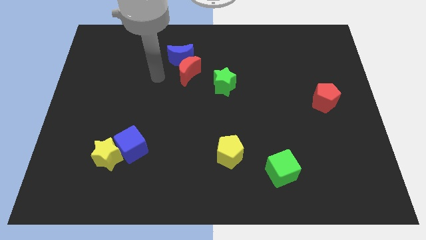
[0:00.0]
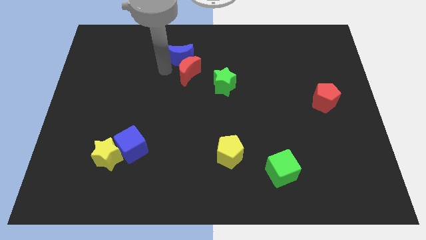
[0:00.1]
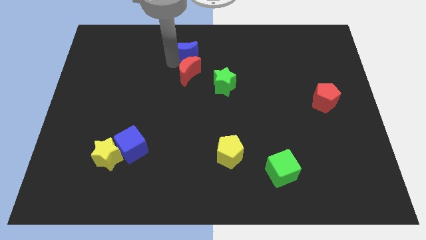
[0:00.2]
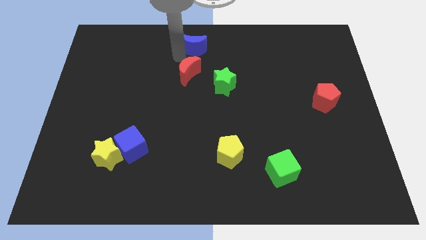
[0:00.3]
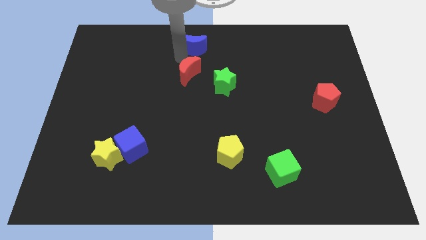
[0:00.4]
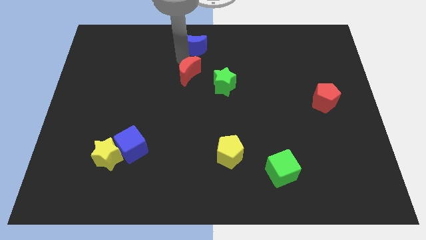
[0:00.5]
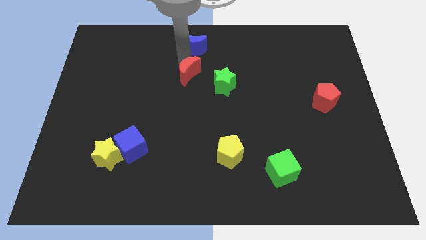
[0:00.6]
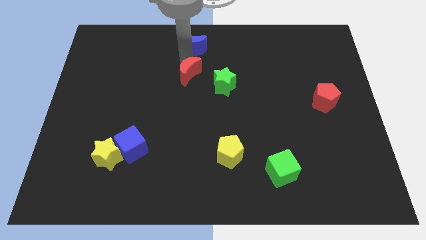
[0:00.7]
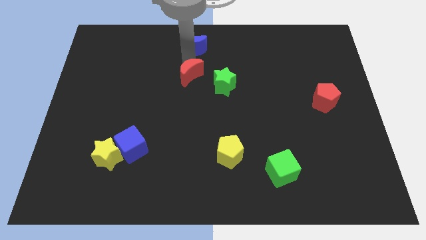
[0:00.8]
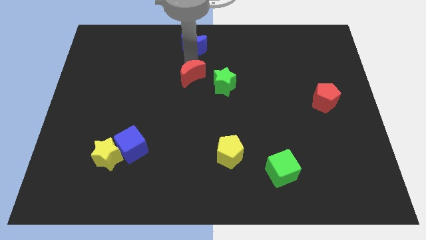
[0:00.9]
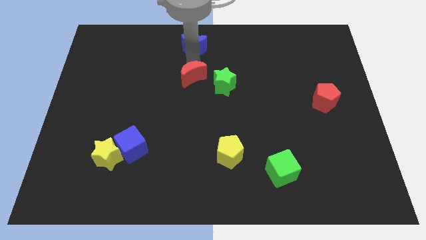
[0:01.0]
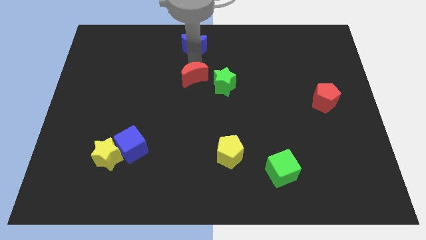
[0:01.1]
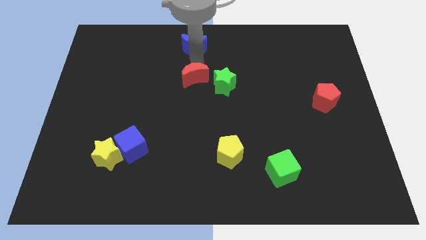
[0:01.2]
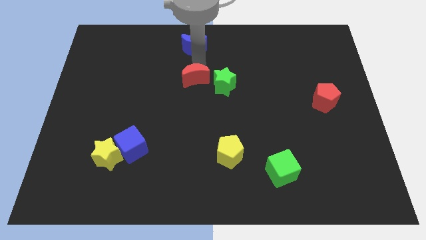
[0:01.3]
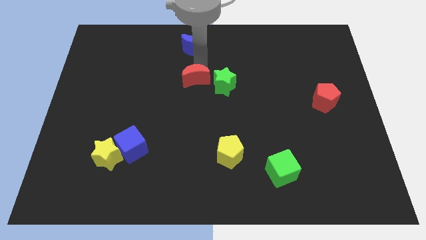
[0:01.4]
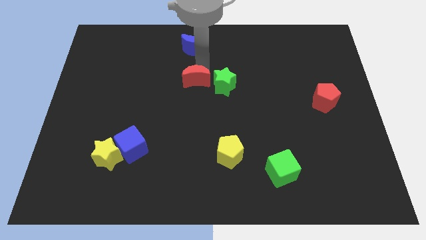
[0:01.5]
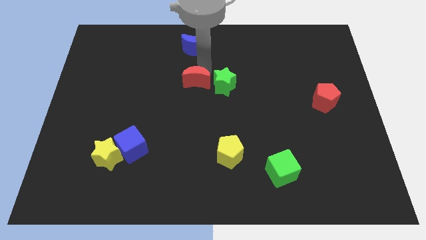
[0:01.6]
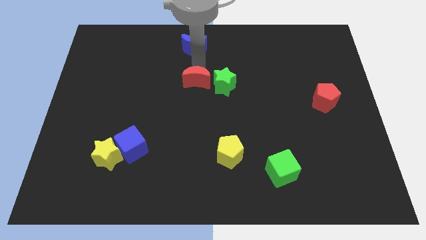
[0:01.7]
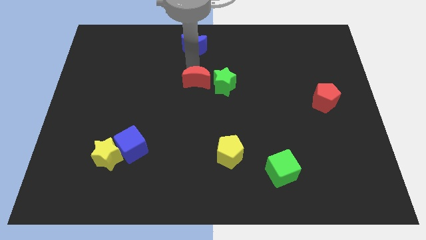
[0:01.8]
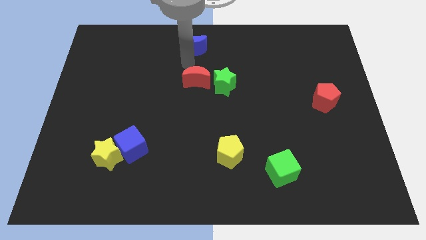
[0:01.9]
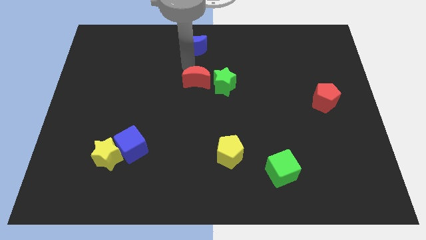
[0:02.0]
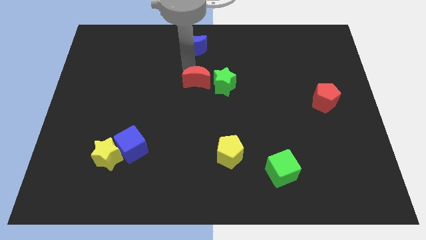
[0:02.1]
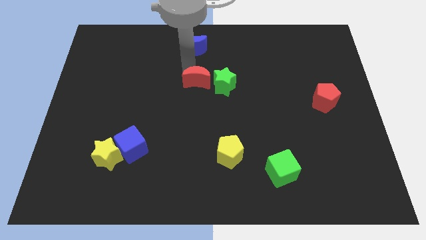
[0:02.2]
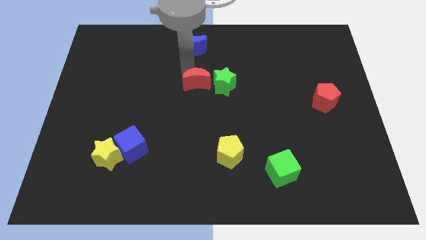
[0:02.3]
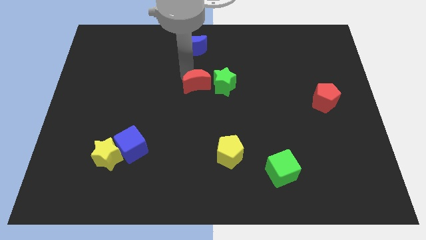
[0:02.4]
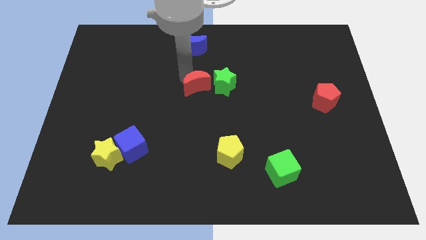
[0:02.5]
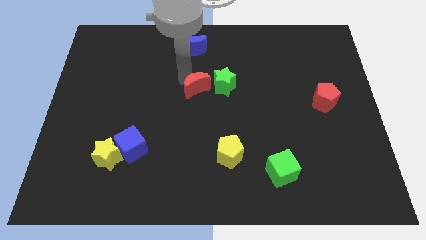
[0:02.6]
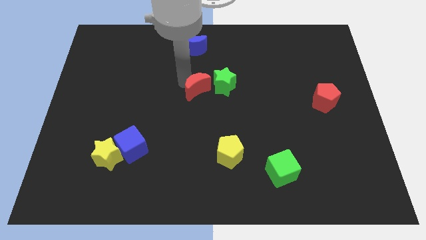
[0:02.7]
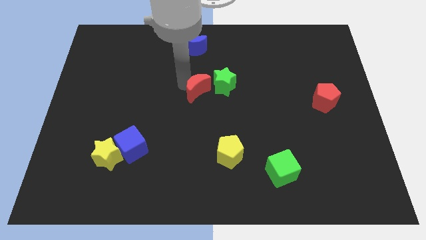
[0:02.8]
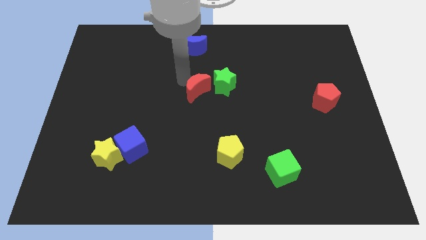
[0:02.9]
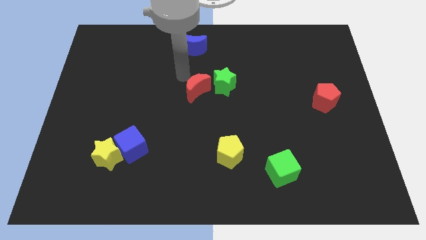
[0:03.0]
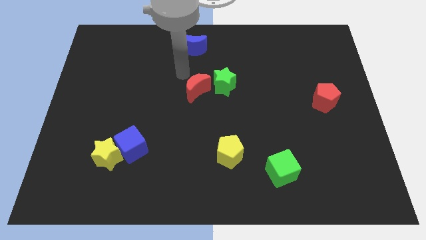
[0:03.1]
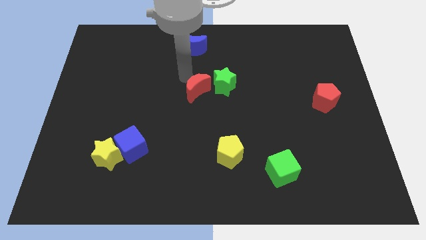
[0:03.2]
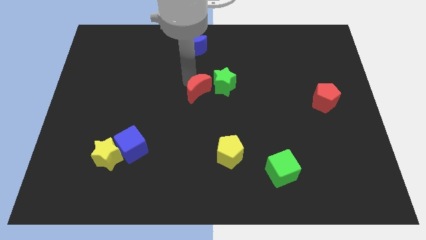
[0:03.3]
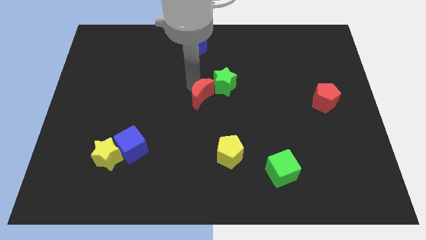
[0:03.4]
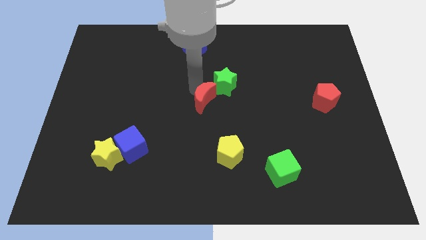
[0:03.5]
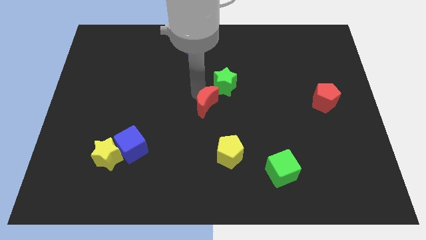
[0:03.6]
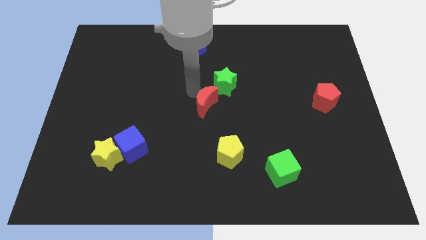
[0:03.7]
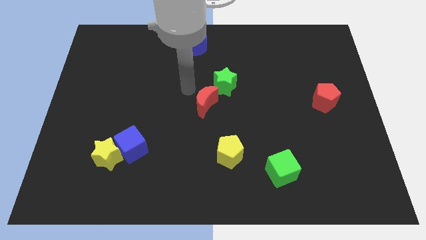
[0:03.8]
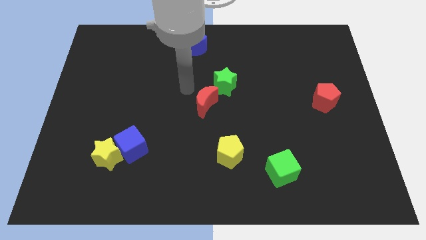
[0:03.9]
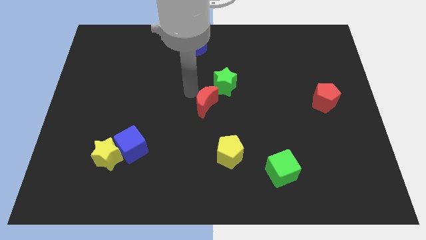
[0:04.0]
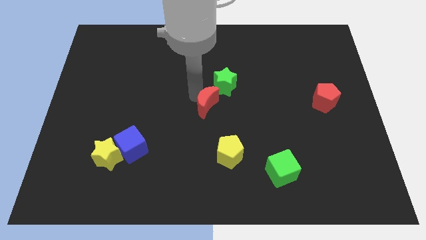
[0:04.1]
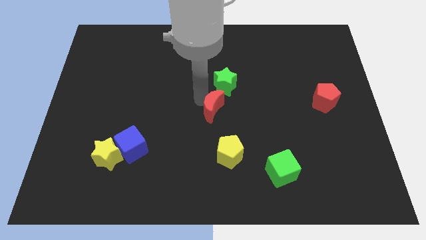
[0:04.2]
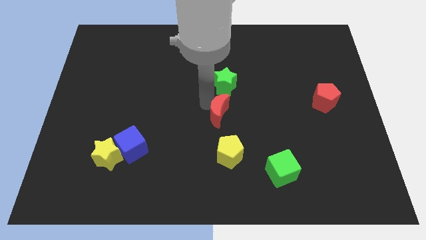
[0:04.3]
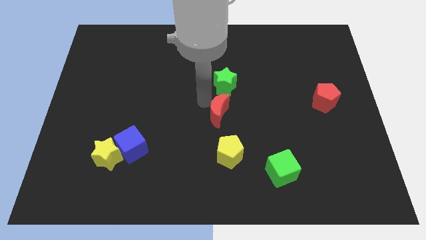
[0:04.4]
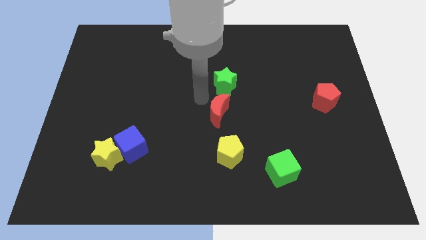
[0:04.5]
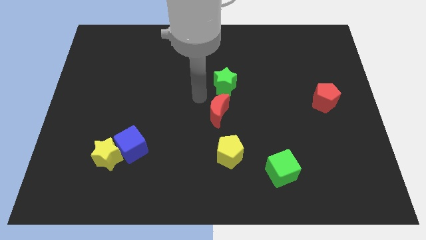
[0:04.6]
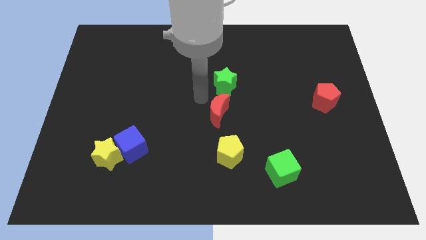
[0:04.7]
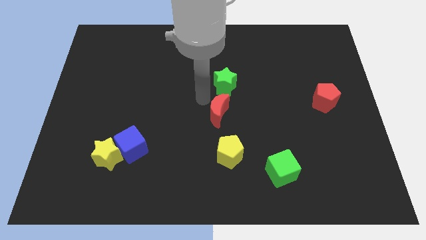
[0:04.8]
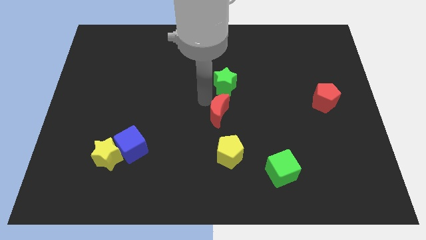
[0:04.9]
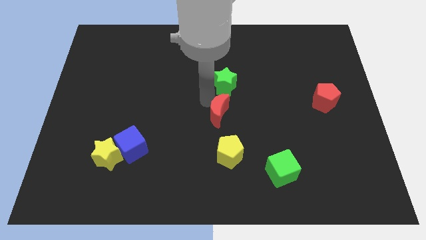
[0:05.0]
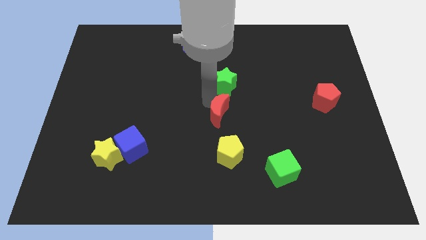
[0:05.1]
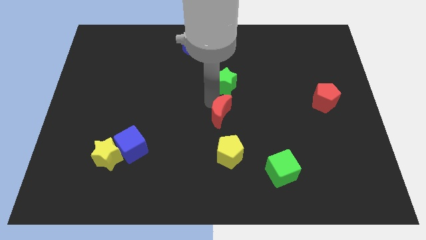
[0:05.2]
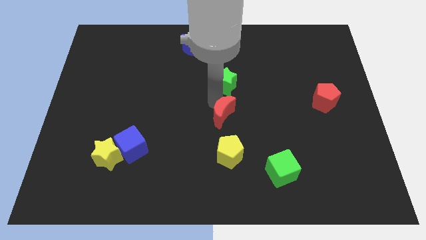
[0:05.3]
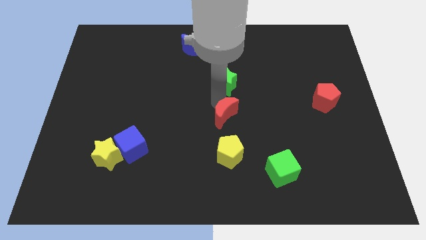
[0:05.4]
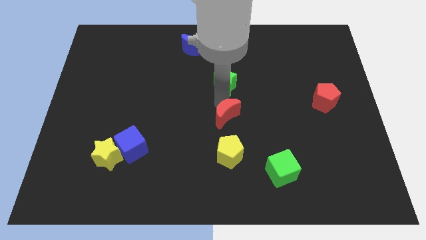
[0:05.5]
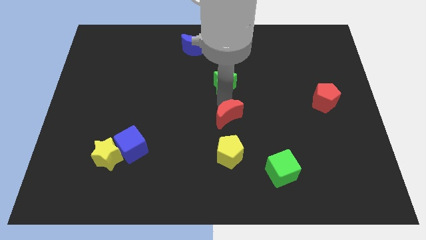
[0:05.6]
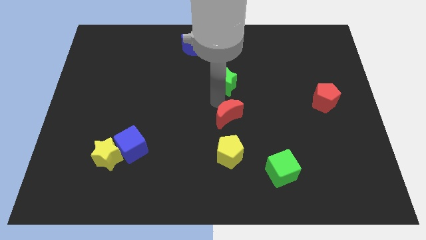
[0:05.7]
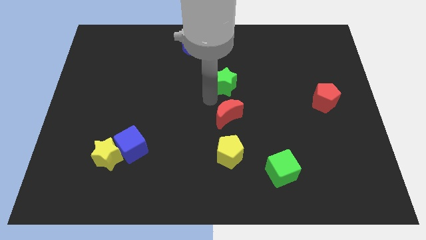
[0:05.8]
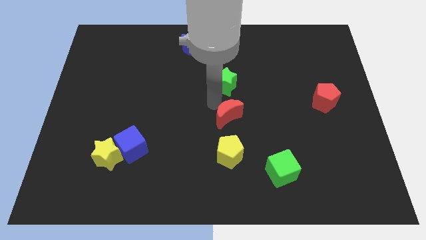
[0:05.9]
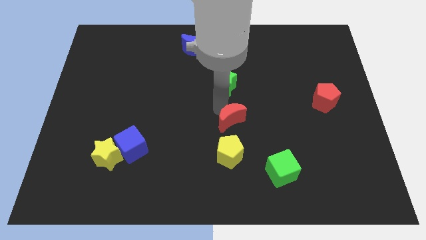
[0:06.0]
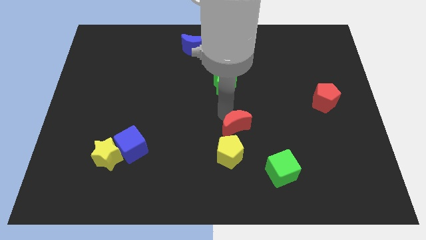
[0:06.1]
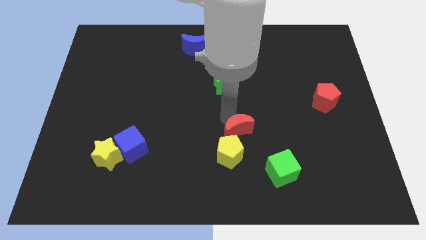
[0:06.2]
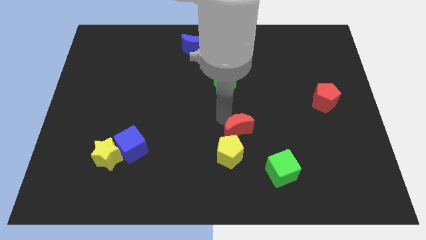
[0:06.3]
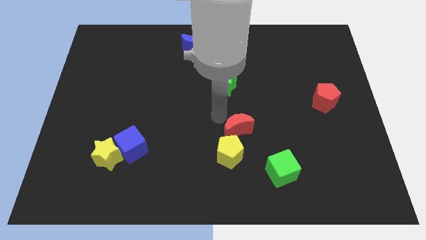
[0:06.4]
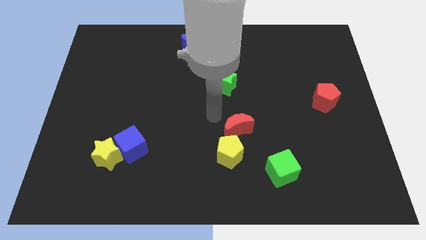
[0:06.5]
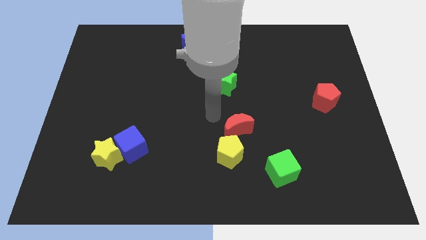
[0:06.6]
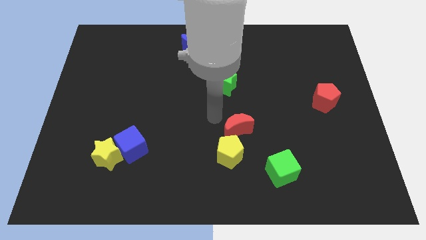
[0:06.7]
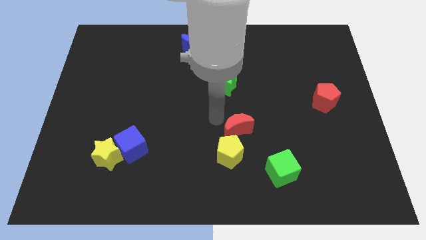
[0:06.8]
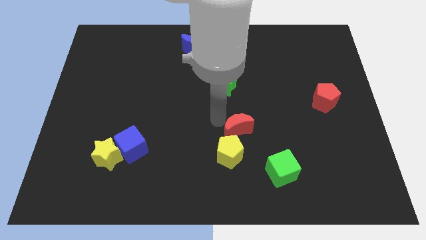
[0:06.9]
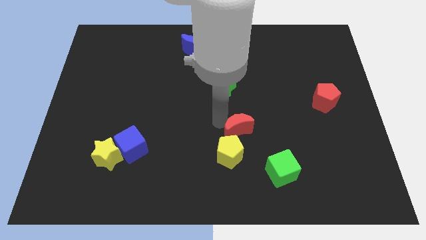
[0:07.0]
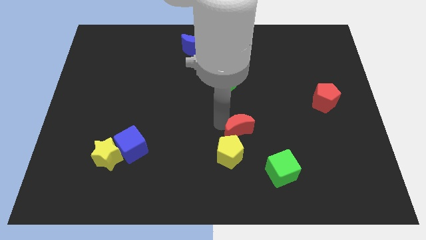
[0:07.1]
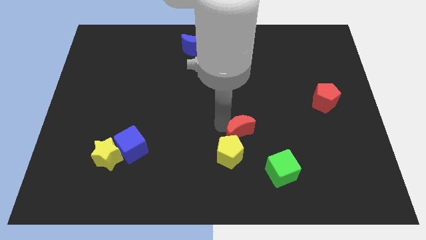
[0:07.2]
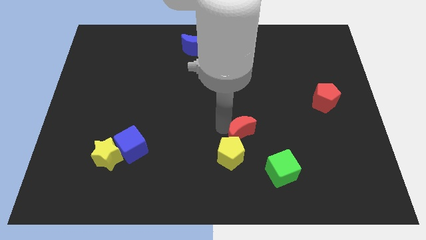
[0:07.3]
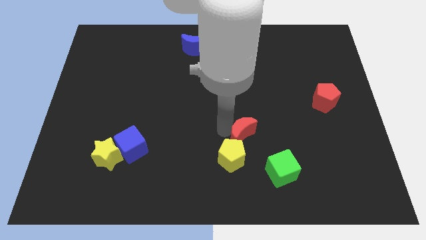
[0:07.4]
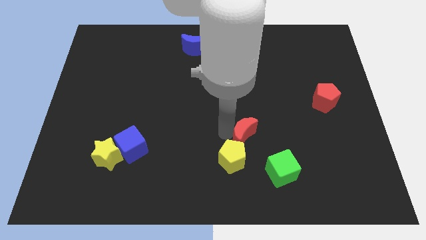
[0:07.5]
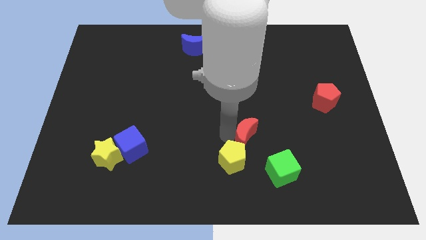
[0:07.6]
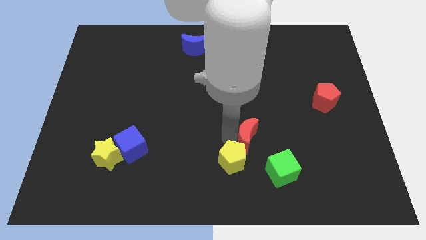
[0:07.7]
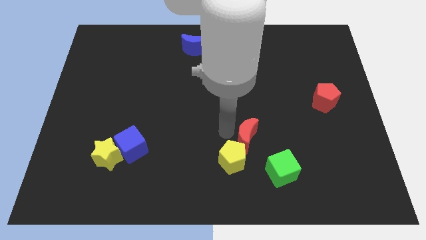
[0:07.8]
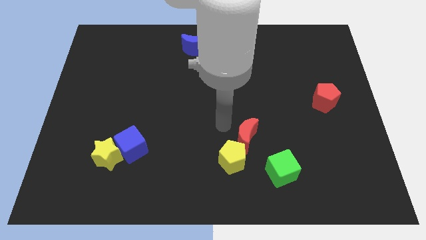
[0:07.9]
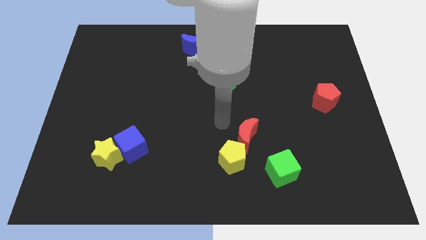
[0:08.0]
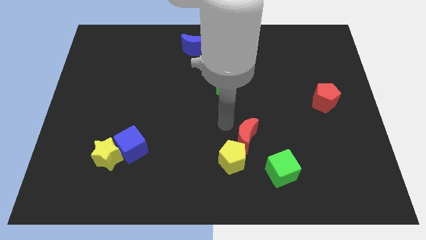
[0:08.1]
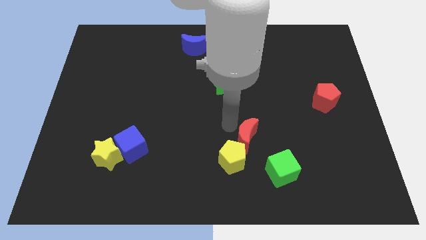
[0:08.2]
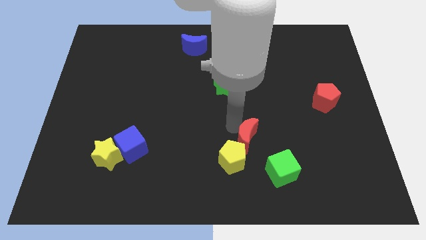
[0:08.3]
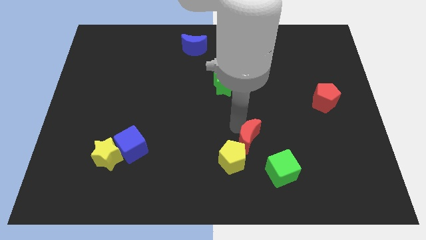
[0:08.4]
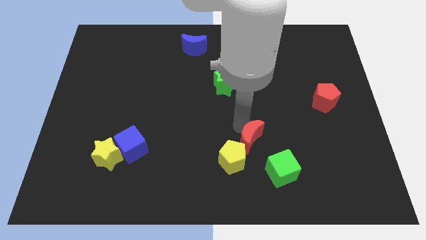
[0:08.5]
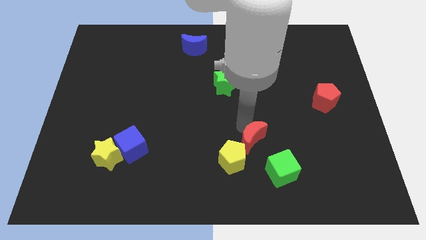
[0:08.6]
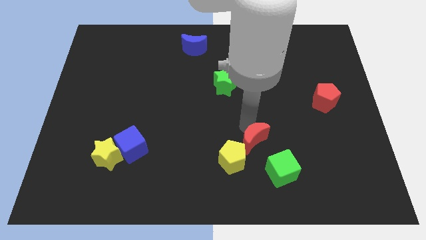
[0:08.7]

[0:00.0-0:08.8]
put the red moon right of the yellow pentagon
